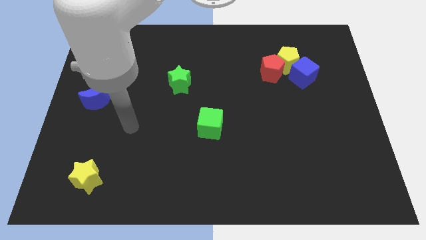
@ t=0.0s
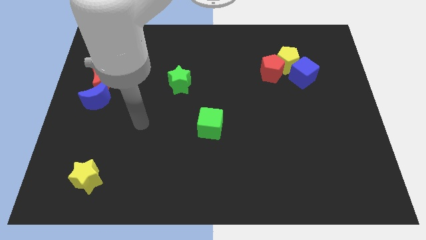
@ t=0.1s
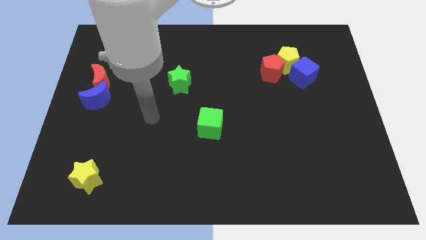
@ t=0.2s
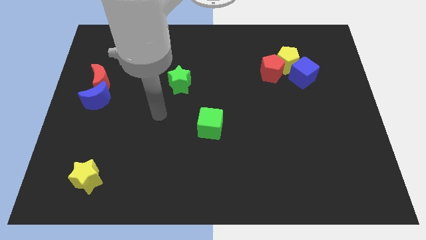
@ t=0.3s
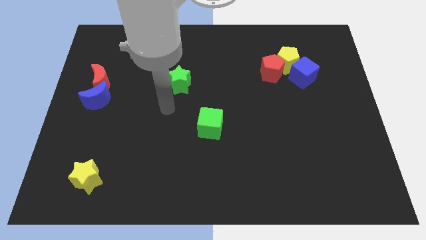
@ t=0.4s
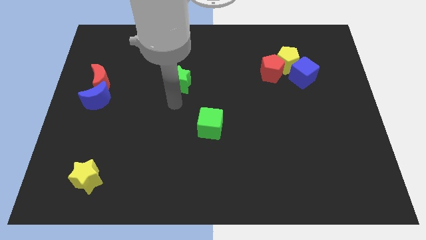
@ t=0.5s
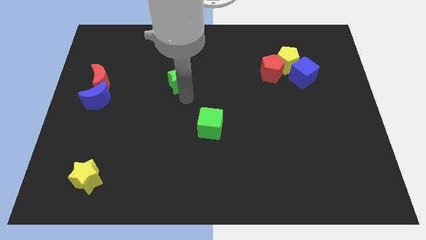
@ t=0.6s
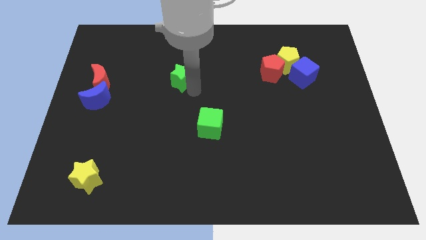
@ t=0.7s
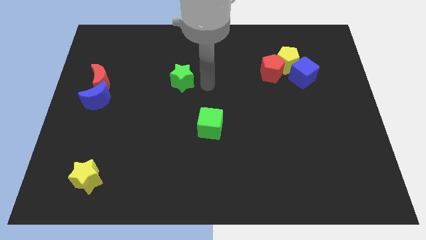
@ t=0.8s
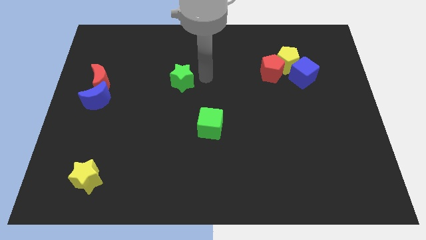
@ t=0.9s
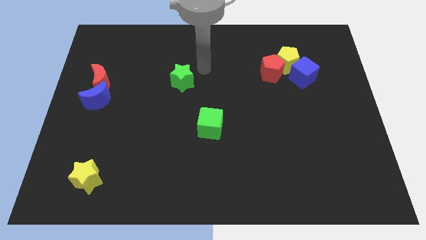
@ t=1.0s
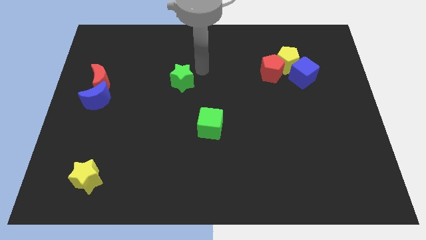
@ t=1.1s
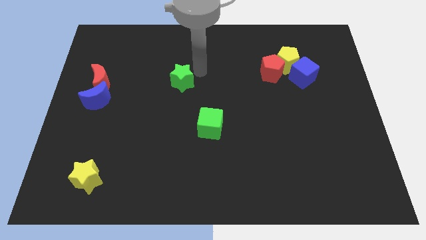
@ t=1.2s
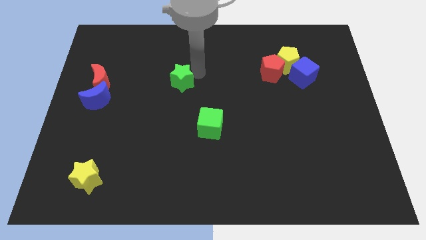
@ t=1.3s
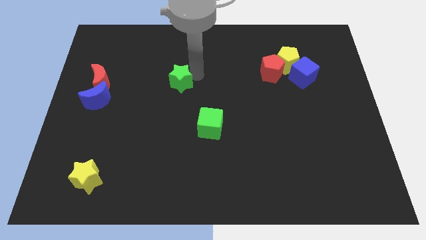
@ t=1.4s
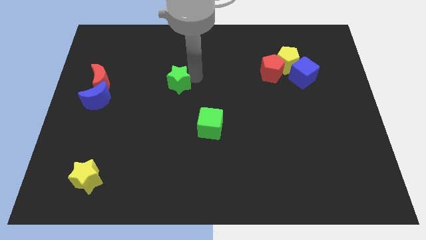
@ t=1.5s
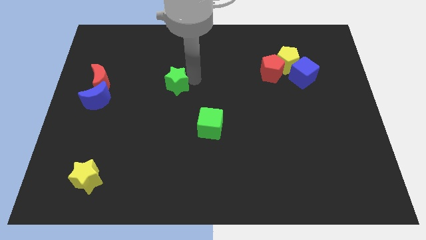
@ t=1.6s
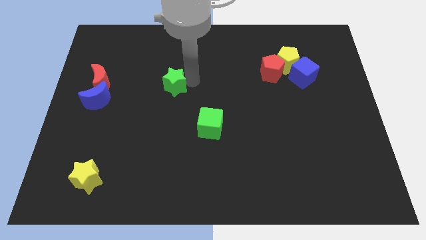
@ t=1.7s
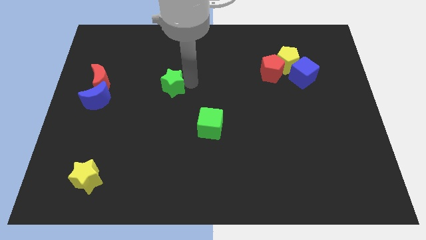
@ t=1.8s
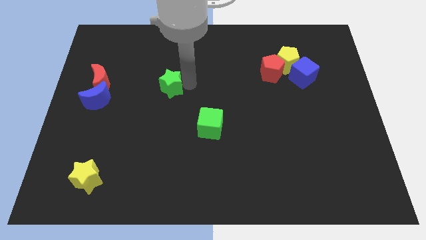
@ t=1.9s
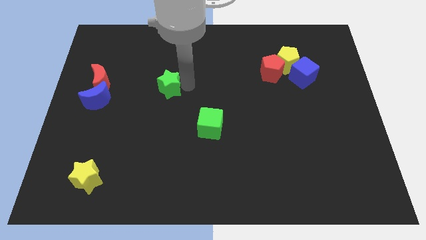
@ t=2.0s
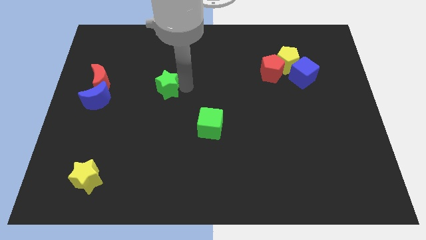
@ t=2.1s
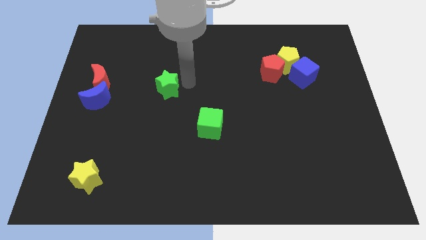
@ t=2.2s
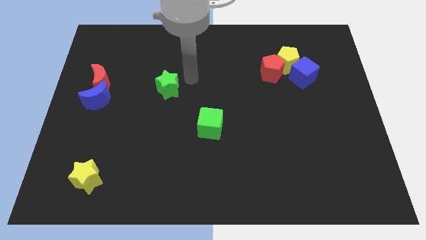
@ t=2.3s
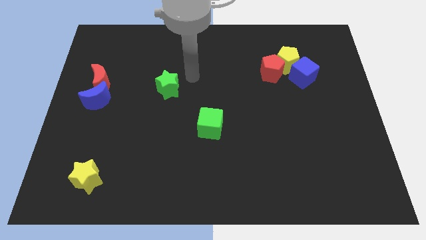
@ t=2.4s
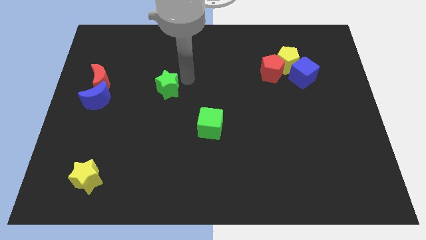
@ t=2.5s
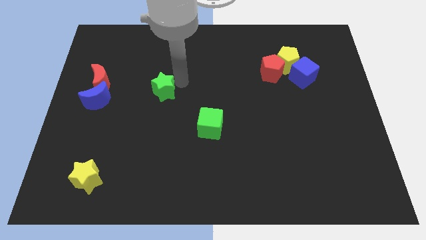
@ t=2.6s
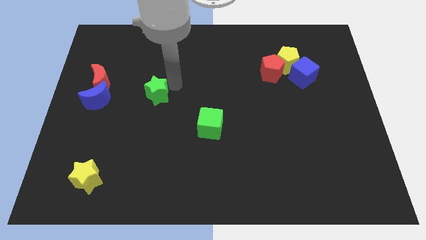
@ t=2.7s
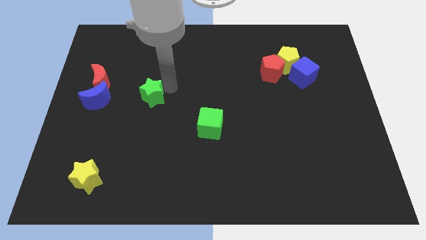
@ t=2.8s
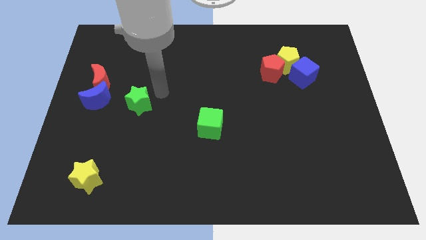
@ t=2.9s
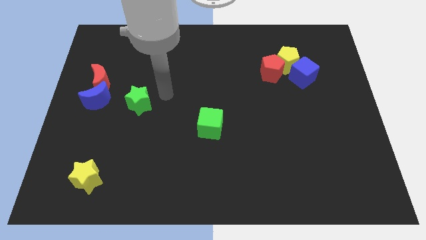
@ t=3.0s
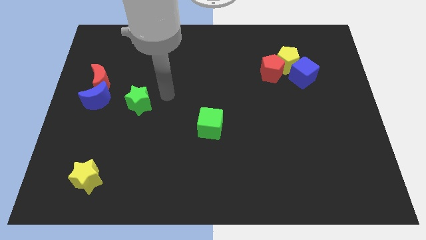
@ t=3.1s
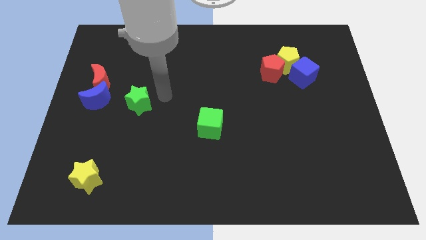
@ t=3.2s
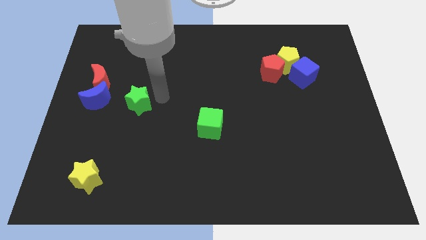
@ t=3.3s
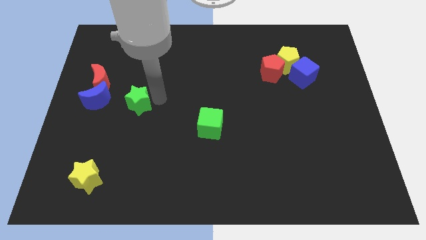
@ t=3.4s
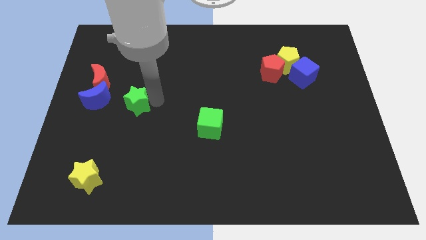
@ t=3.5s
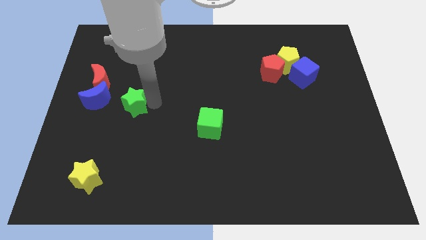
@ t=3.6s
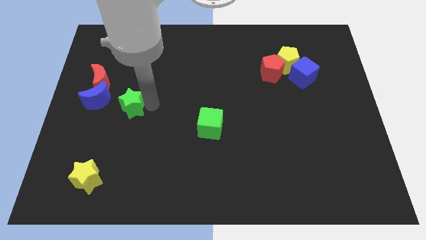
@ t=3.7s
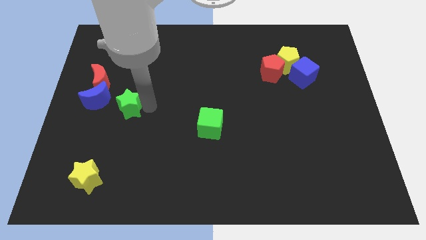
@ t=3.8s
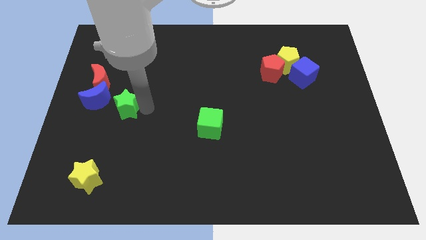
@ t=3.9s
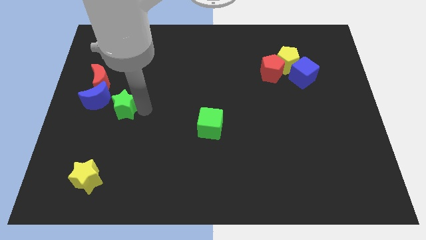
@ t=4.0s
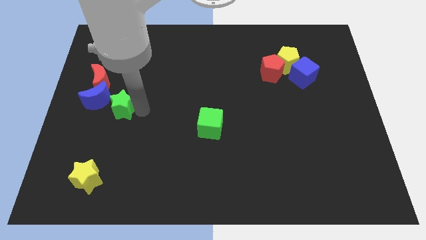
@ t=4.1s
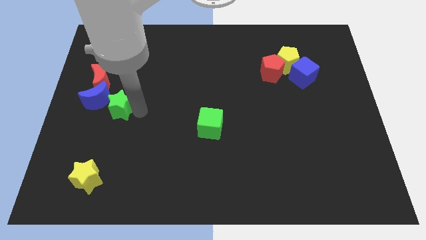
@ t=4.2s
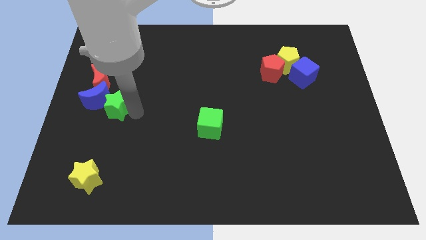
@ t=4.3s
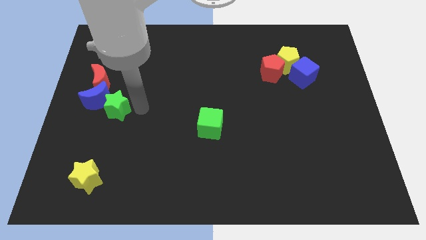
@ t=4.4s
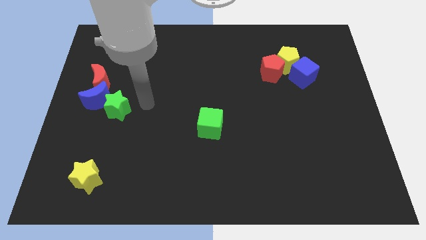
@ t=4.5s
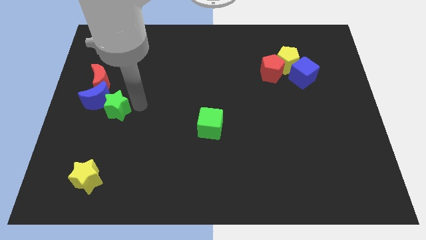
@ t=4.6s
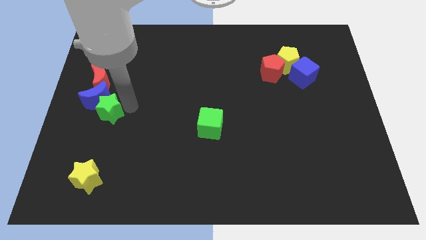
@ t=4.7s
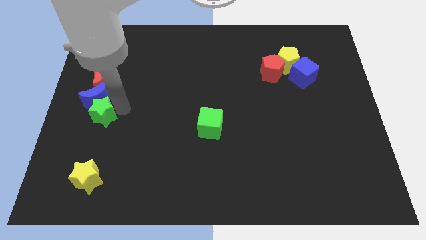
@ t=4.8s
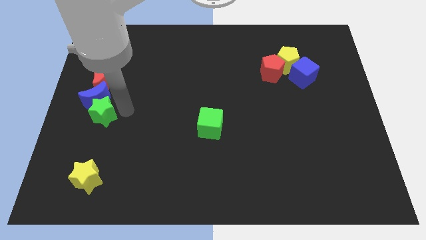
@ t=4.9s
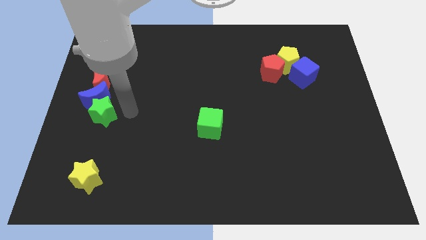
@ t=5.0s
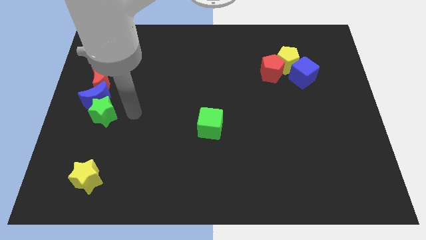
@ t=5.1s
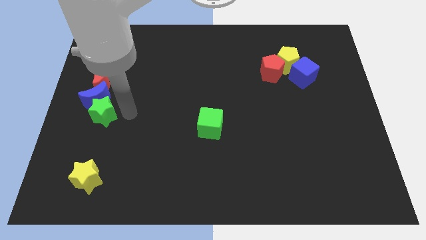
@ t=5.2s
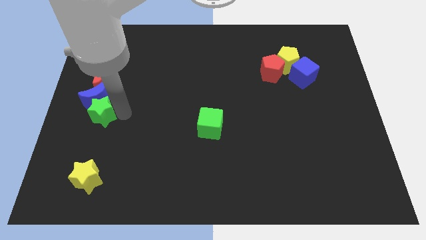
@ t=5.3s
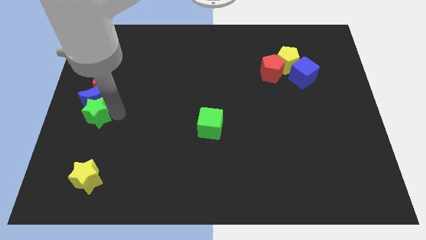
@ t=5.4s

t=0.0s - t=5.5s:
put the green star to the center left

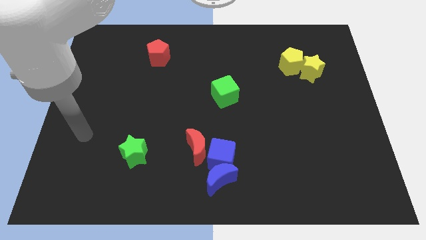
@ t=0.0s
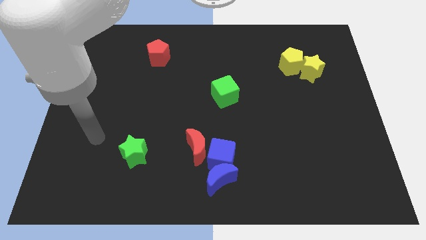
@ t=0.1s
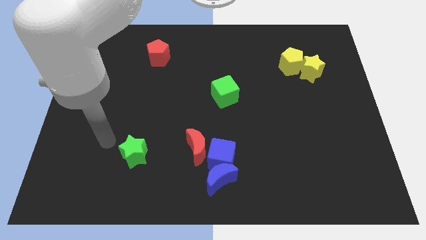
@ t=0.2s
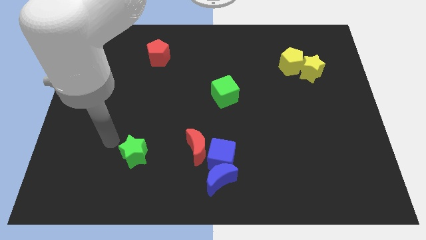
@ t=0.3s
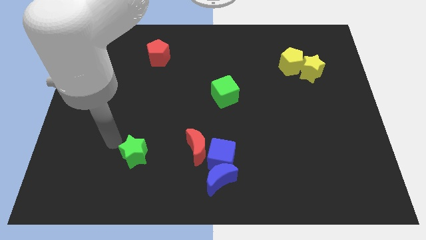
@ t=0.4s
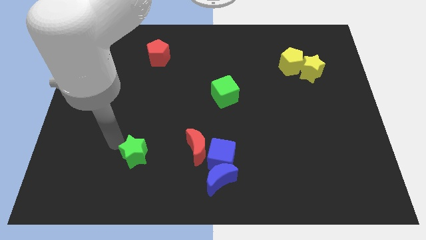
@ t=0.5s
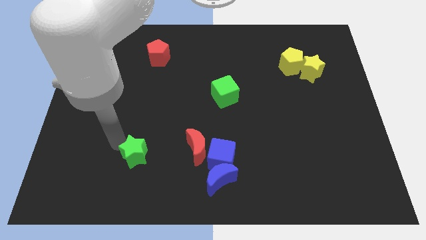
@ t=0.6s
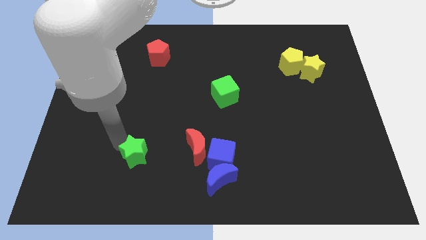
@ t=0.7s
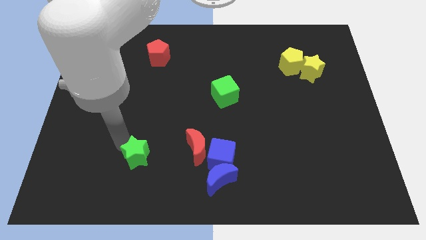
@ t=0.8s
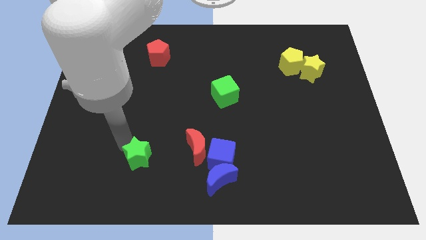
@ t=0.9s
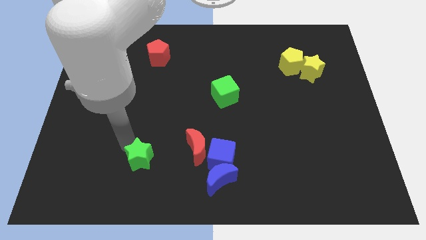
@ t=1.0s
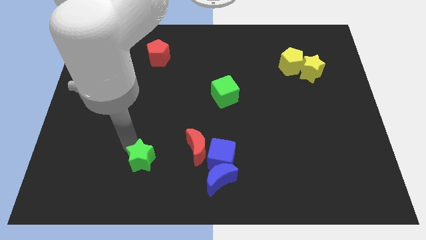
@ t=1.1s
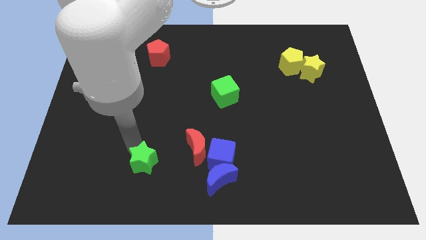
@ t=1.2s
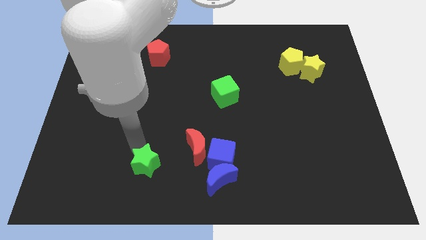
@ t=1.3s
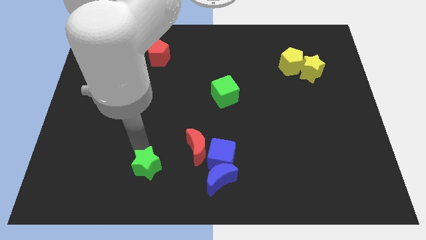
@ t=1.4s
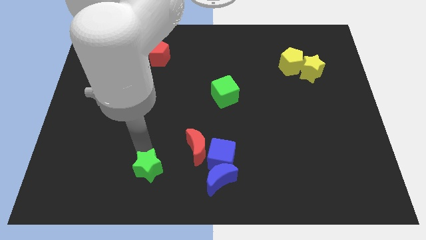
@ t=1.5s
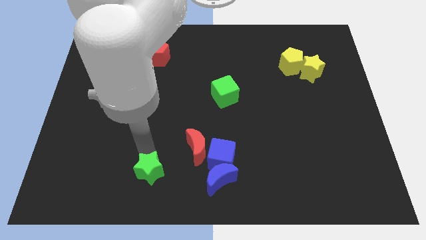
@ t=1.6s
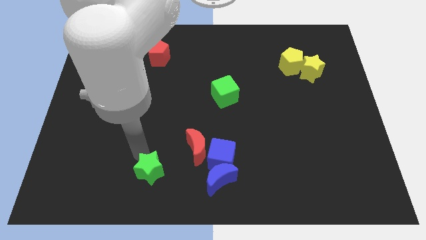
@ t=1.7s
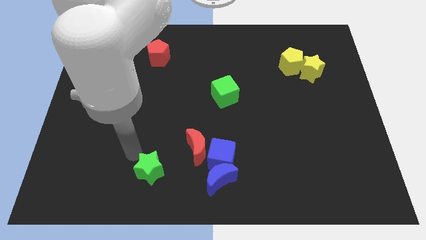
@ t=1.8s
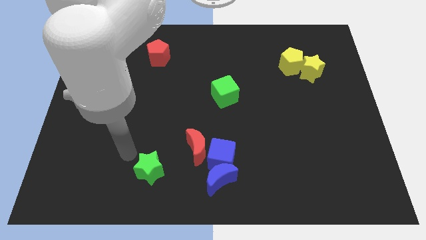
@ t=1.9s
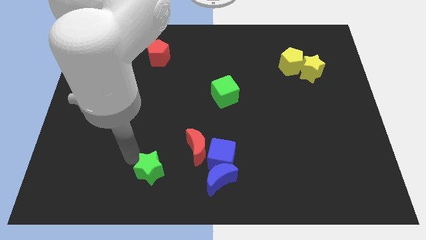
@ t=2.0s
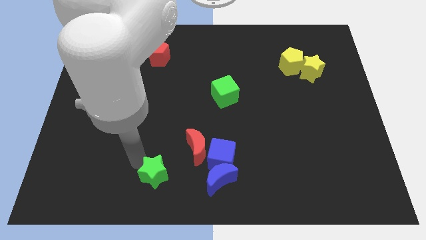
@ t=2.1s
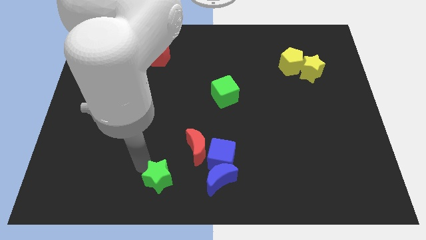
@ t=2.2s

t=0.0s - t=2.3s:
push the green star to the bottom side

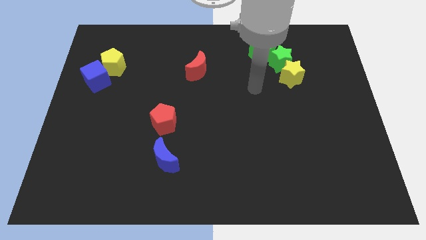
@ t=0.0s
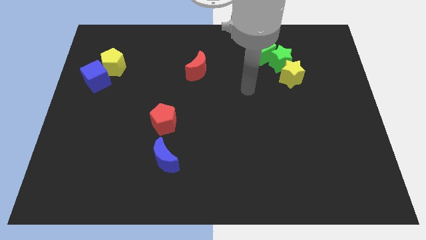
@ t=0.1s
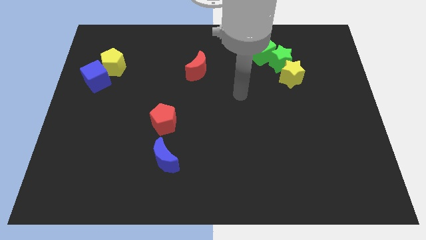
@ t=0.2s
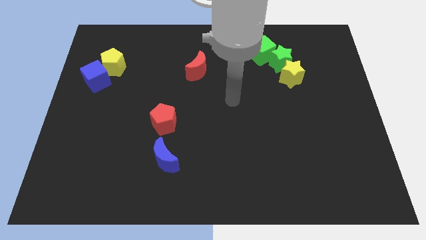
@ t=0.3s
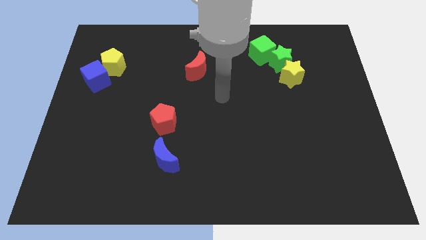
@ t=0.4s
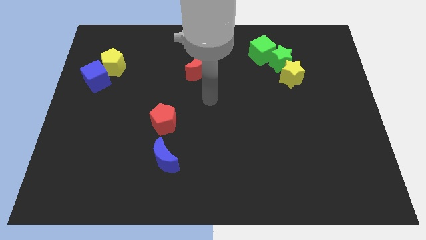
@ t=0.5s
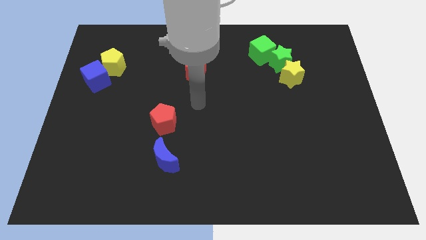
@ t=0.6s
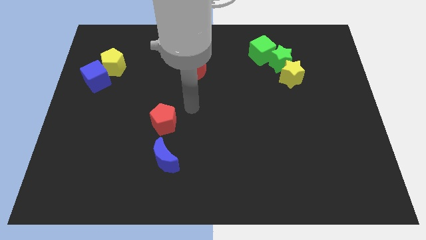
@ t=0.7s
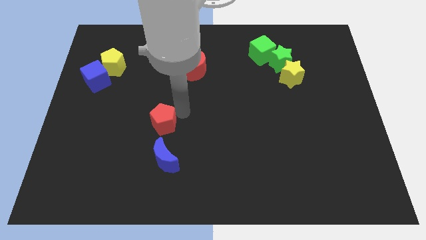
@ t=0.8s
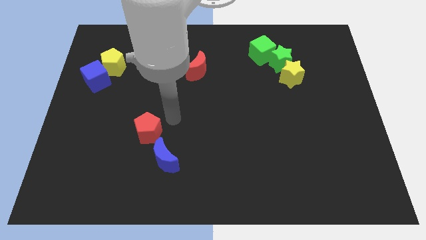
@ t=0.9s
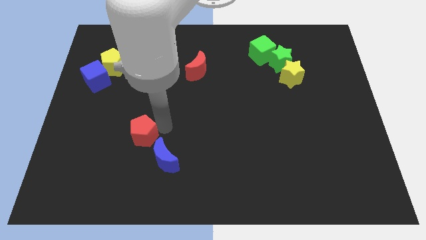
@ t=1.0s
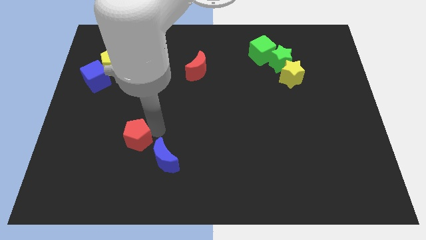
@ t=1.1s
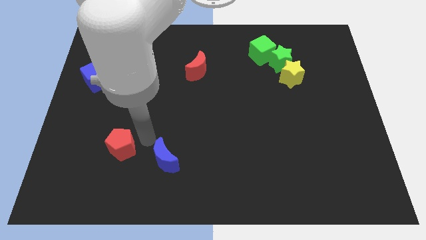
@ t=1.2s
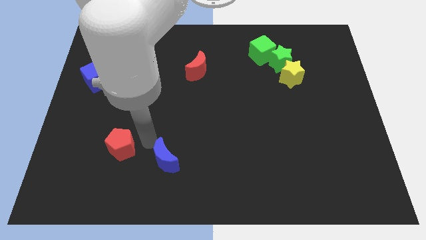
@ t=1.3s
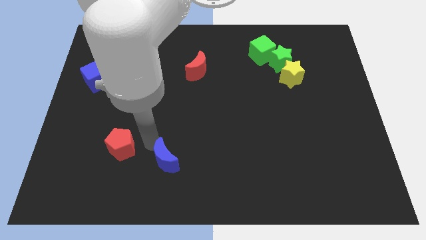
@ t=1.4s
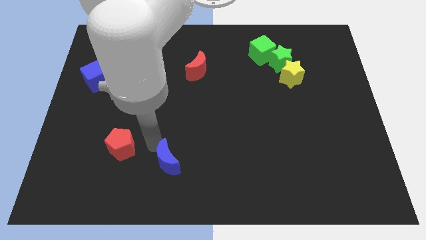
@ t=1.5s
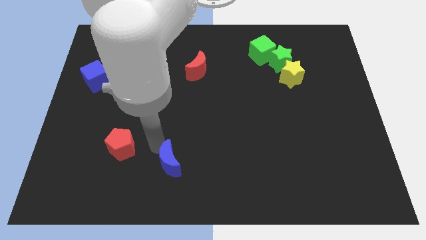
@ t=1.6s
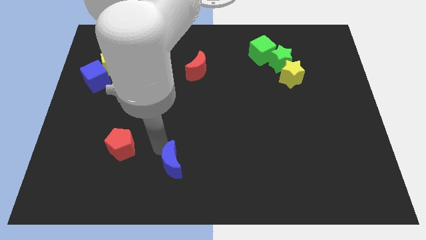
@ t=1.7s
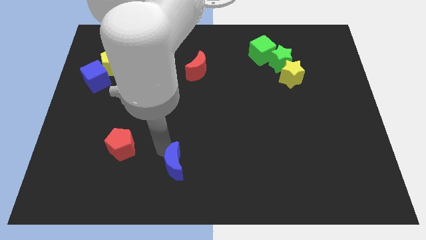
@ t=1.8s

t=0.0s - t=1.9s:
push the blue moon to the bottom side
